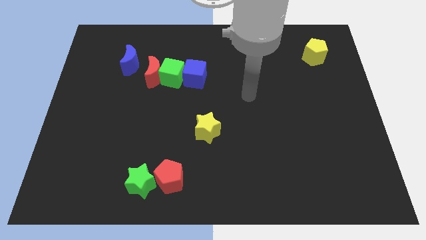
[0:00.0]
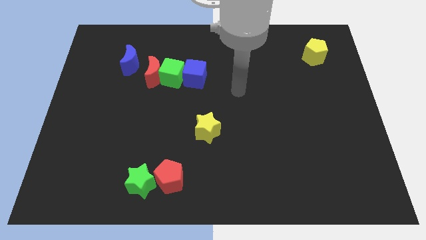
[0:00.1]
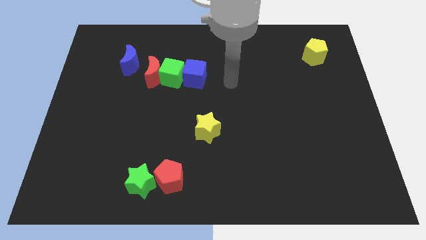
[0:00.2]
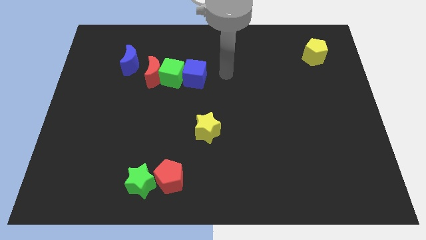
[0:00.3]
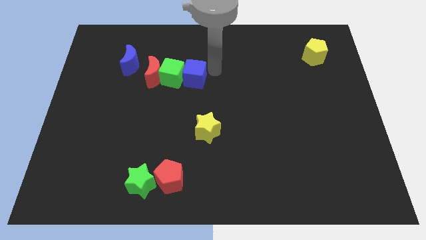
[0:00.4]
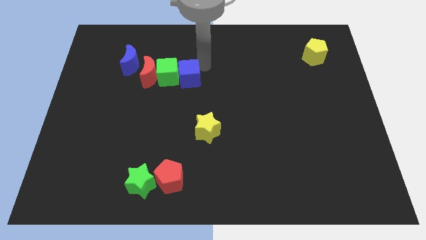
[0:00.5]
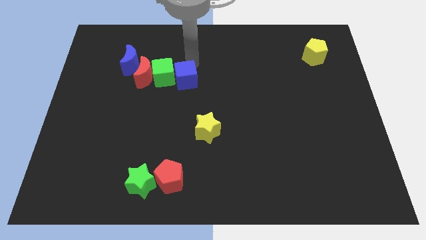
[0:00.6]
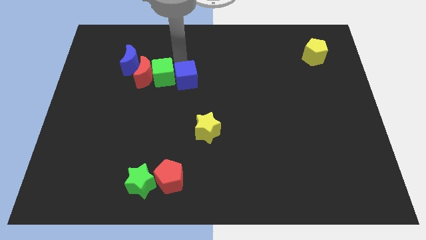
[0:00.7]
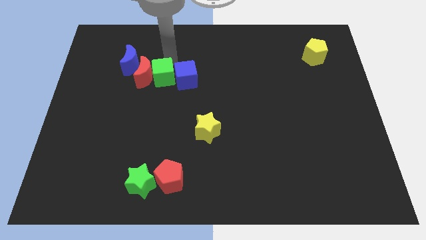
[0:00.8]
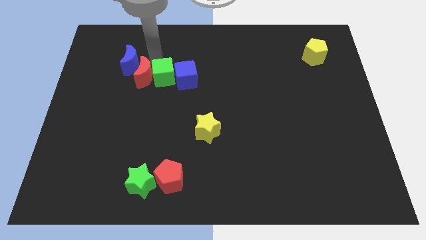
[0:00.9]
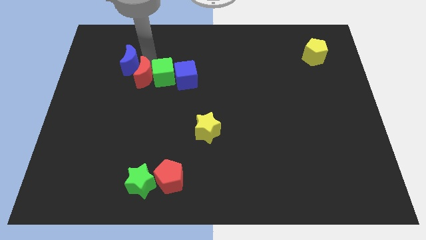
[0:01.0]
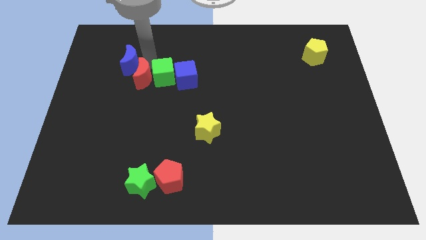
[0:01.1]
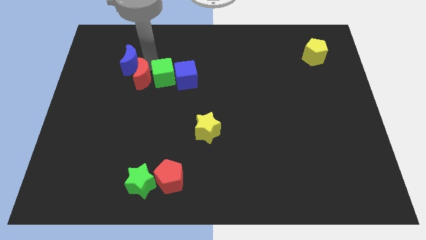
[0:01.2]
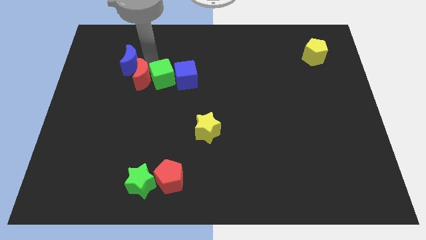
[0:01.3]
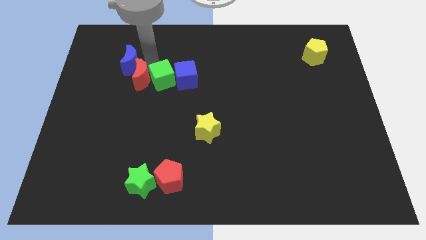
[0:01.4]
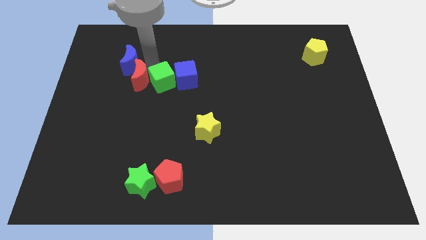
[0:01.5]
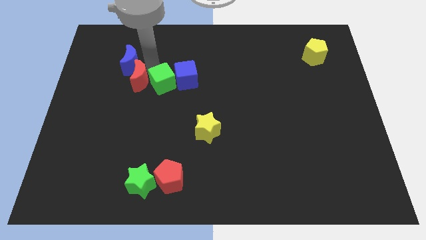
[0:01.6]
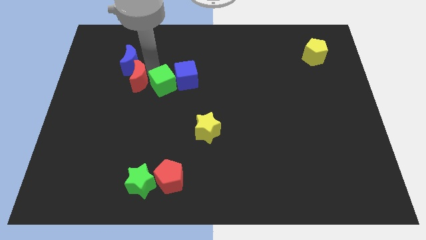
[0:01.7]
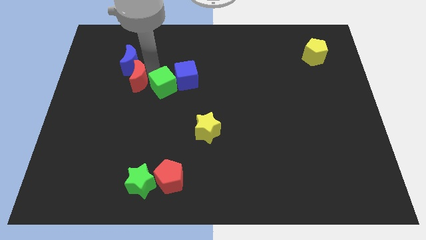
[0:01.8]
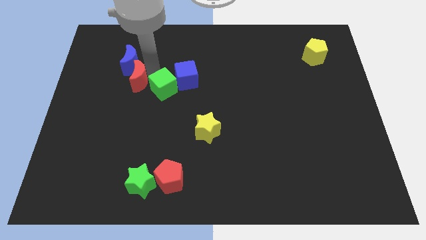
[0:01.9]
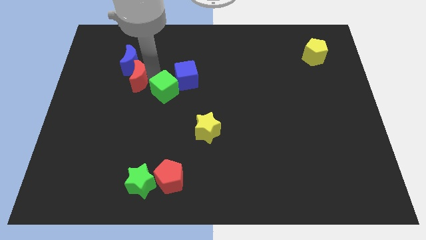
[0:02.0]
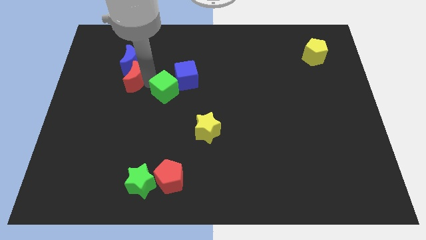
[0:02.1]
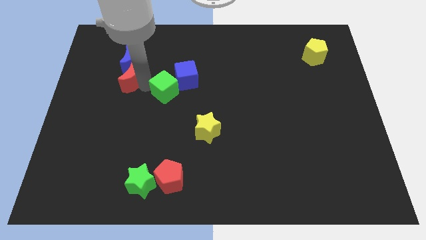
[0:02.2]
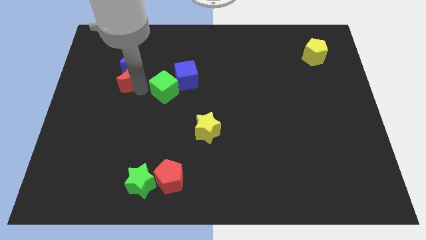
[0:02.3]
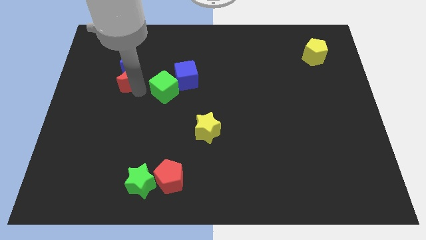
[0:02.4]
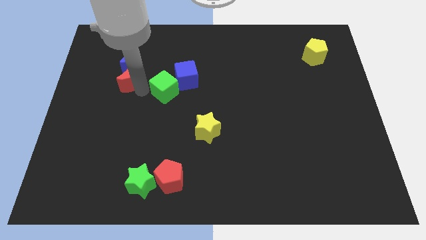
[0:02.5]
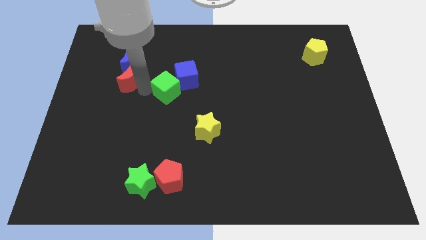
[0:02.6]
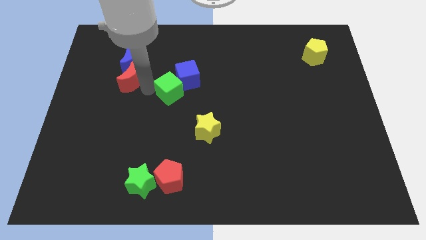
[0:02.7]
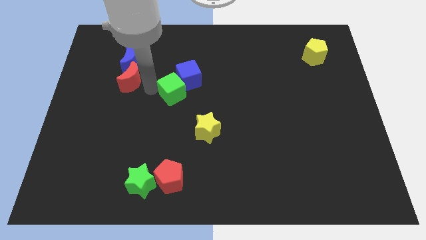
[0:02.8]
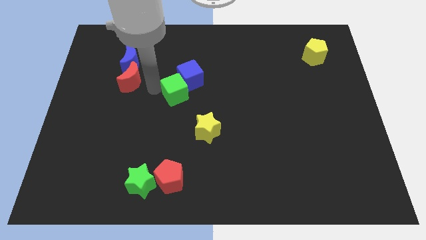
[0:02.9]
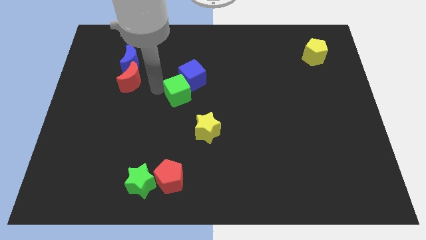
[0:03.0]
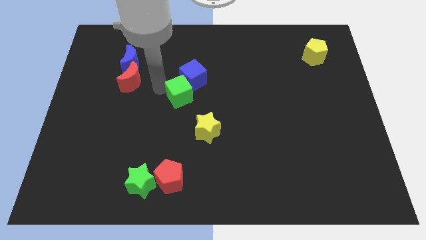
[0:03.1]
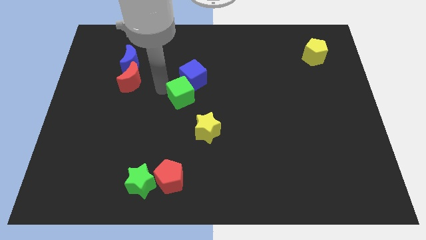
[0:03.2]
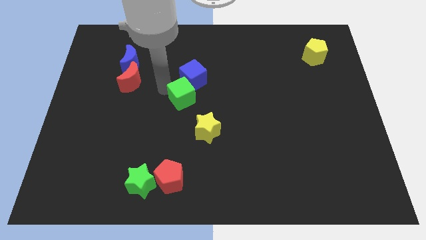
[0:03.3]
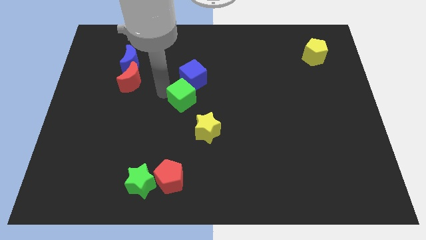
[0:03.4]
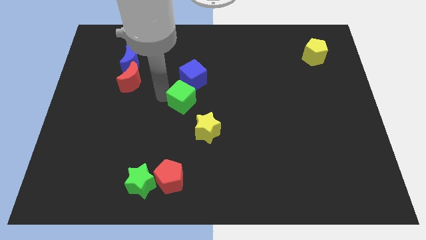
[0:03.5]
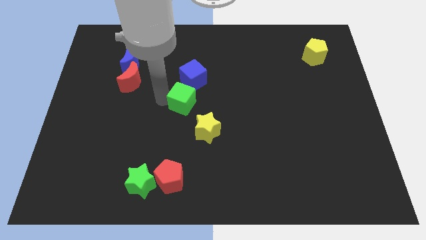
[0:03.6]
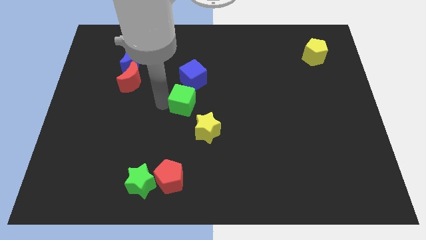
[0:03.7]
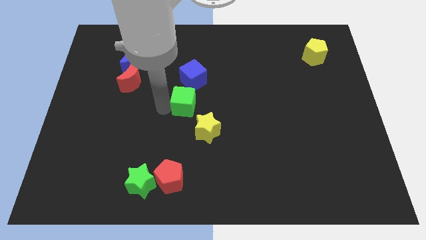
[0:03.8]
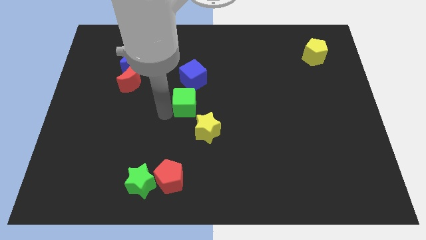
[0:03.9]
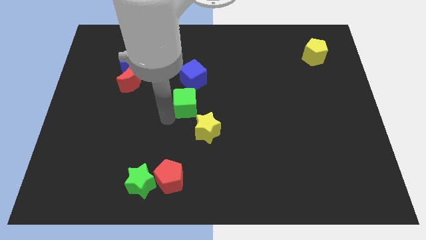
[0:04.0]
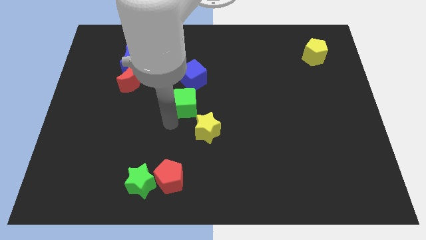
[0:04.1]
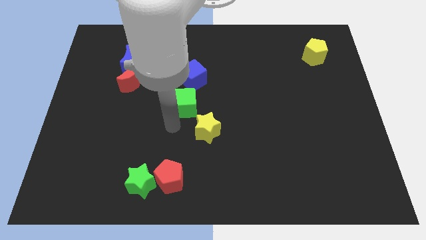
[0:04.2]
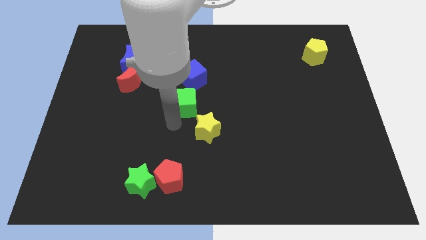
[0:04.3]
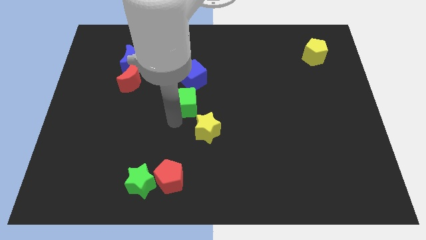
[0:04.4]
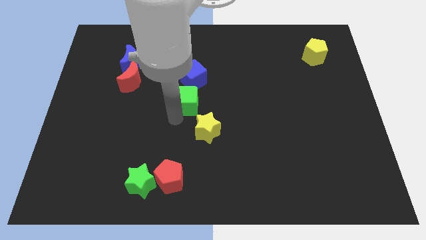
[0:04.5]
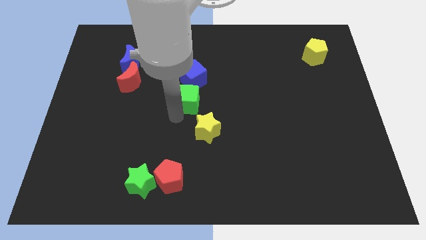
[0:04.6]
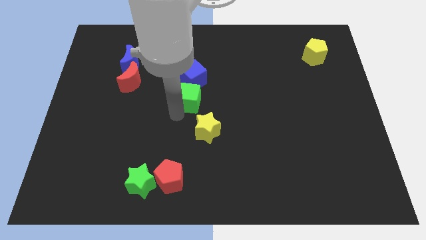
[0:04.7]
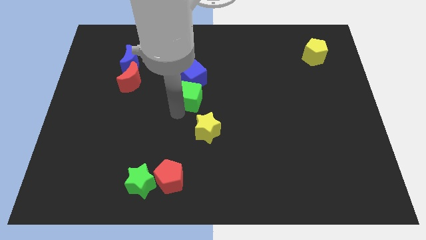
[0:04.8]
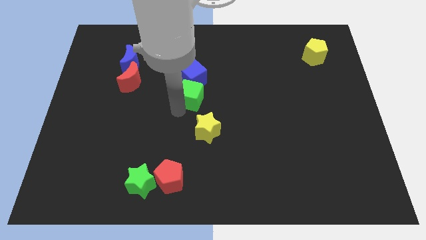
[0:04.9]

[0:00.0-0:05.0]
slide the green cube to the bottom right of the blue cube

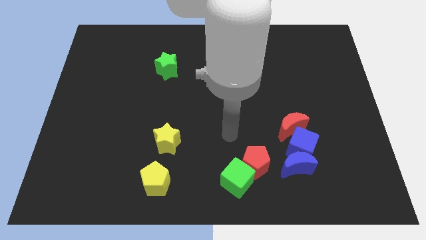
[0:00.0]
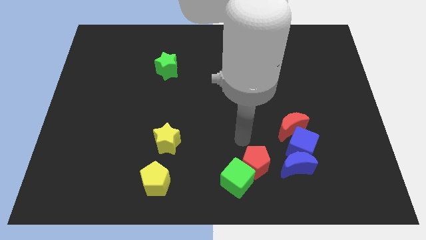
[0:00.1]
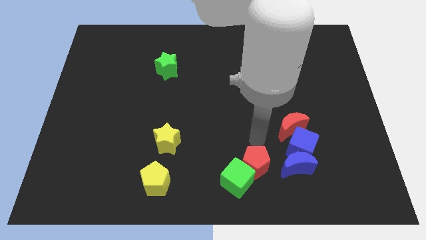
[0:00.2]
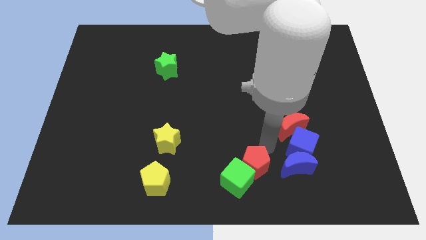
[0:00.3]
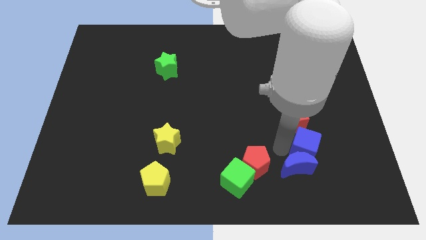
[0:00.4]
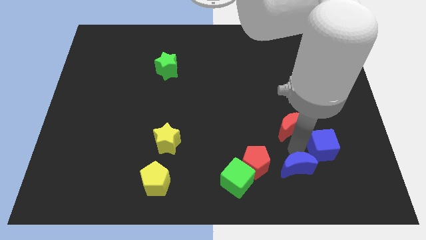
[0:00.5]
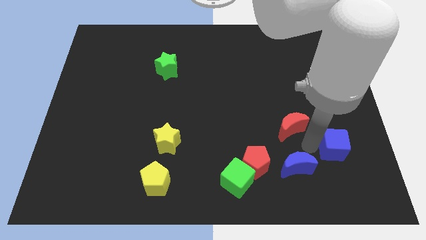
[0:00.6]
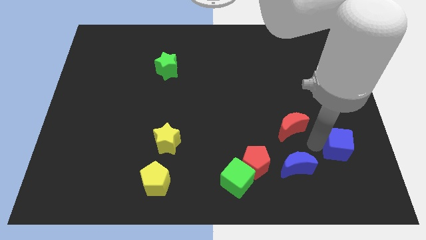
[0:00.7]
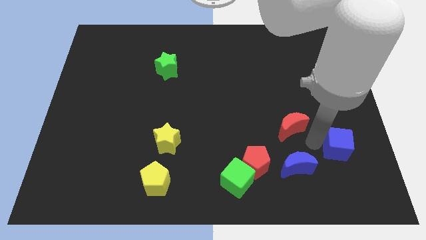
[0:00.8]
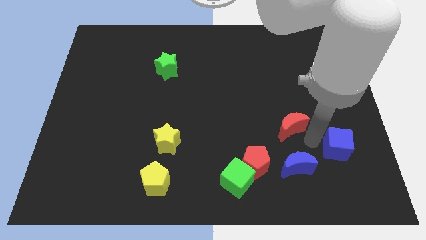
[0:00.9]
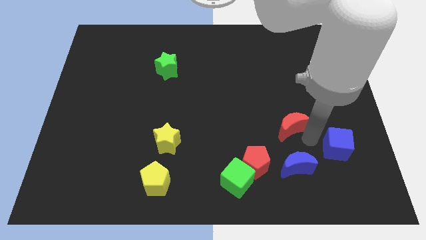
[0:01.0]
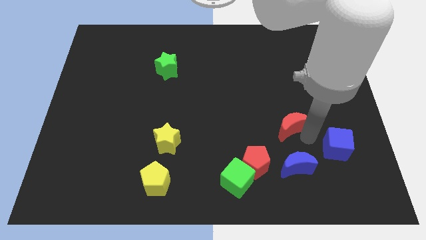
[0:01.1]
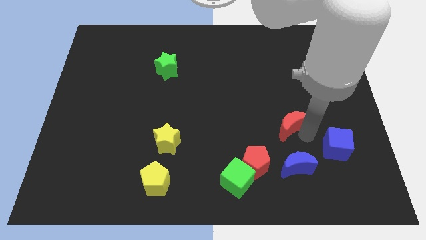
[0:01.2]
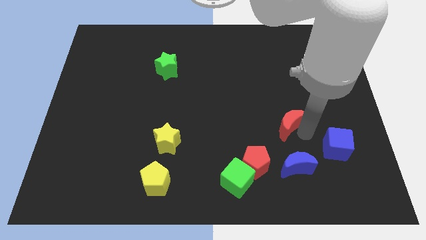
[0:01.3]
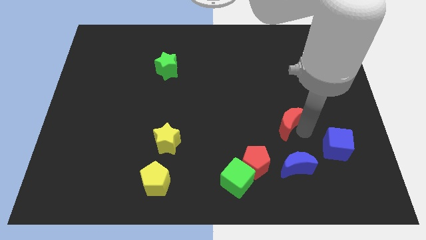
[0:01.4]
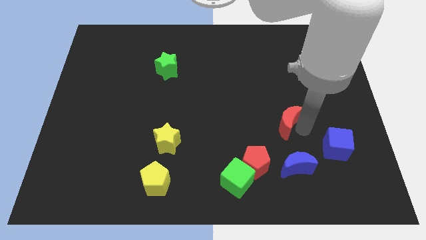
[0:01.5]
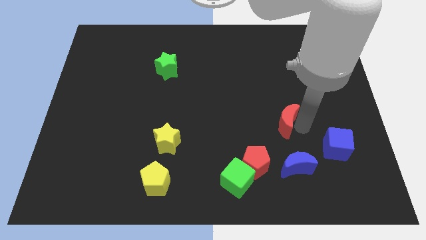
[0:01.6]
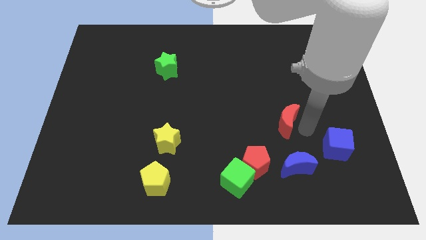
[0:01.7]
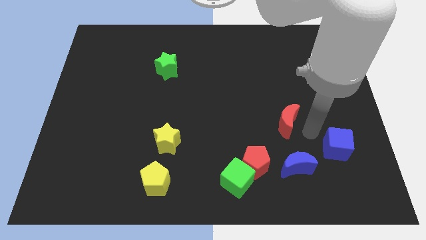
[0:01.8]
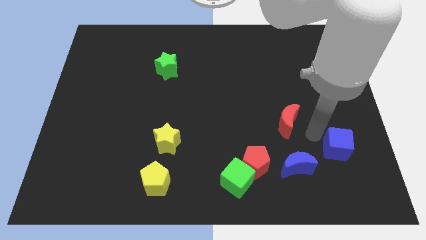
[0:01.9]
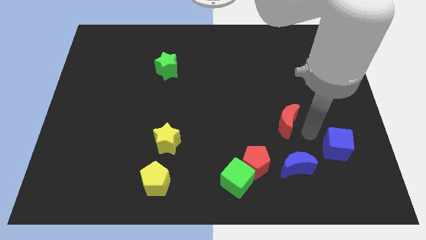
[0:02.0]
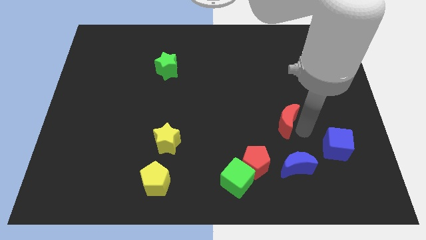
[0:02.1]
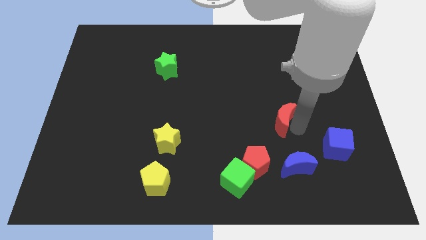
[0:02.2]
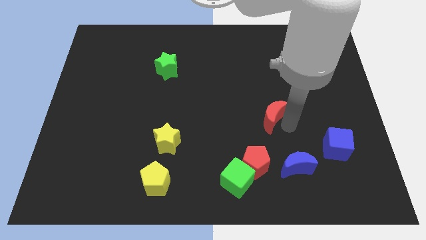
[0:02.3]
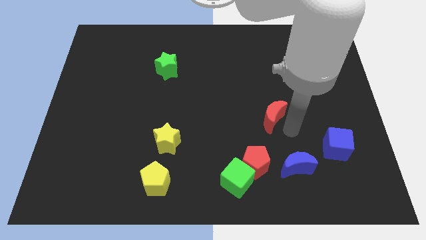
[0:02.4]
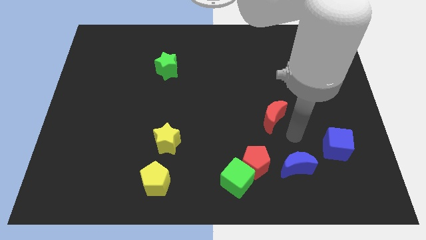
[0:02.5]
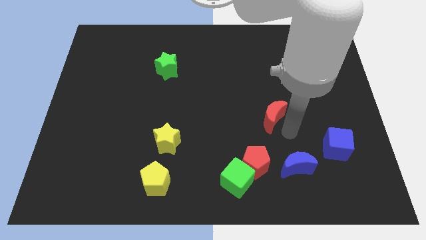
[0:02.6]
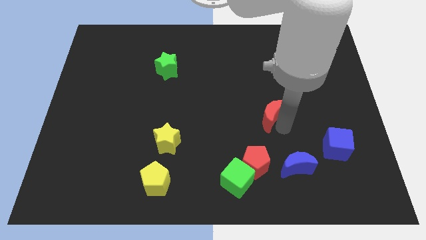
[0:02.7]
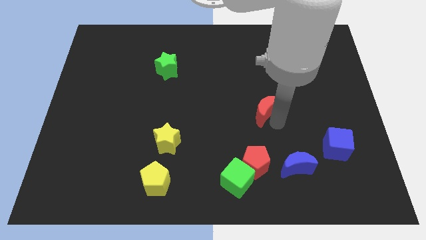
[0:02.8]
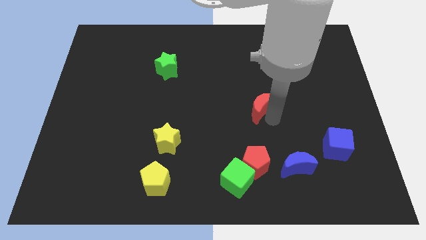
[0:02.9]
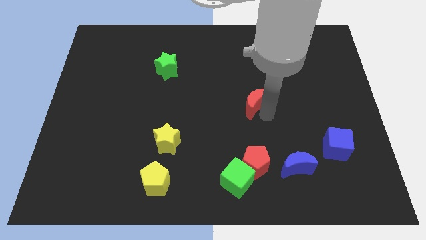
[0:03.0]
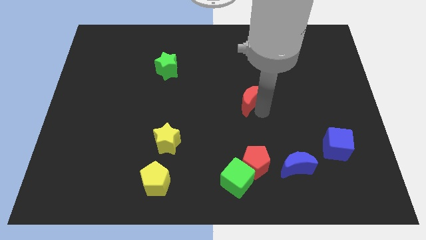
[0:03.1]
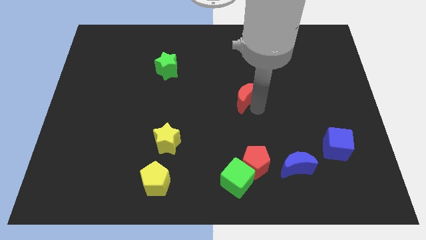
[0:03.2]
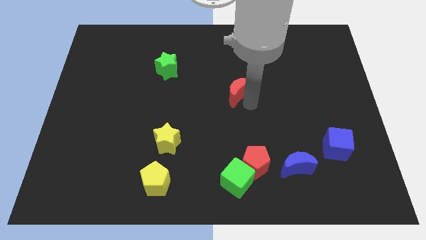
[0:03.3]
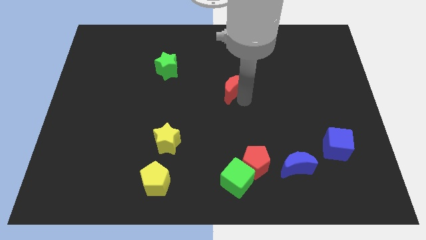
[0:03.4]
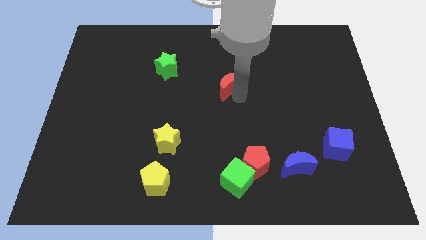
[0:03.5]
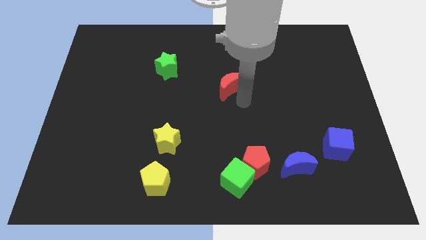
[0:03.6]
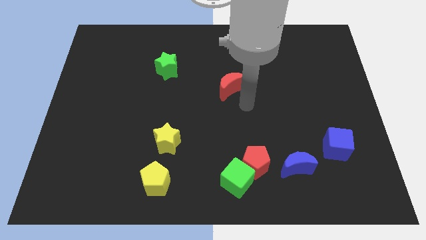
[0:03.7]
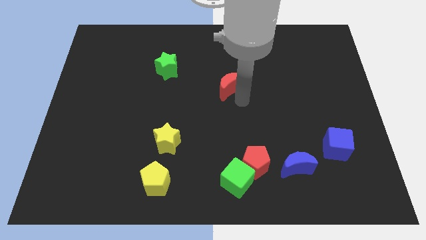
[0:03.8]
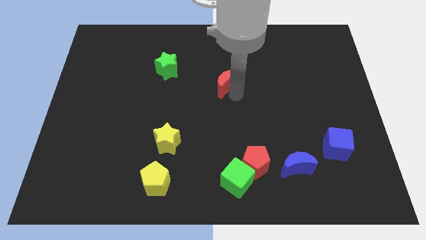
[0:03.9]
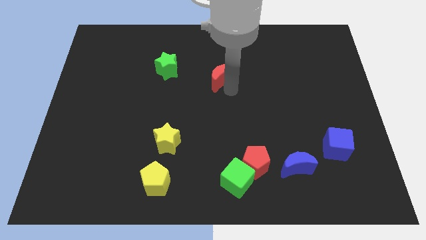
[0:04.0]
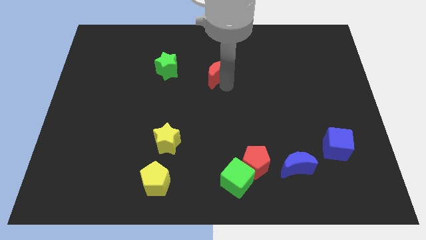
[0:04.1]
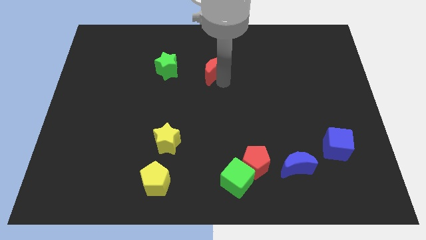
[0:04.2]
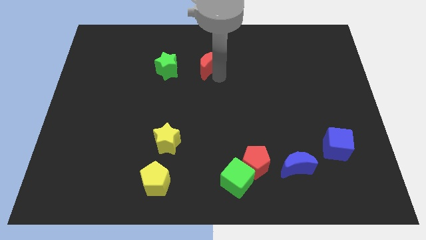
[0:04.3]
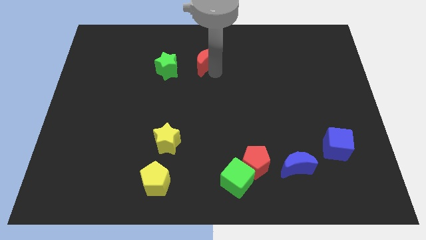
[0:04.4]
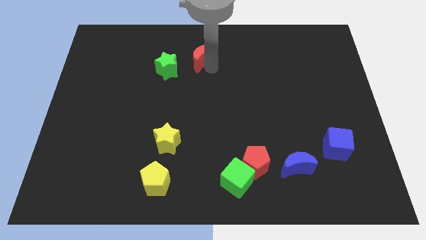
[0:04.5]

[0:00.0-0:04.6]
push the red moon to the top right of the green star
